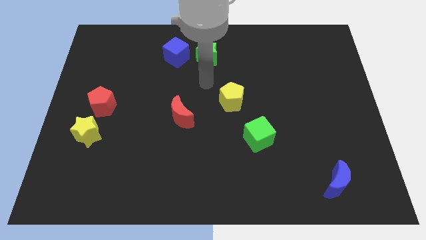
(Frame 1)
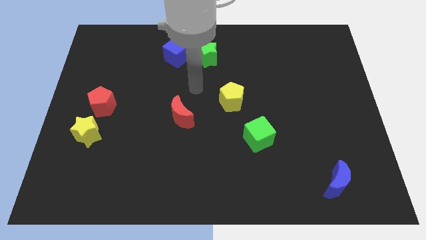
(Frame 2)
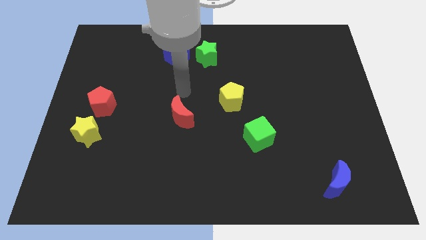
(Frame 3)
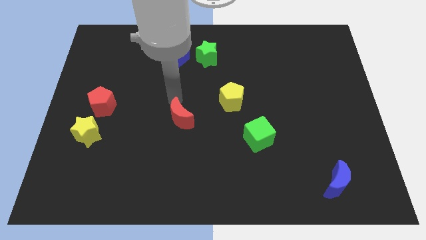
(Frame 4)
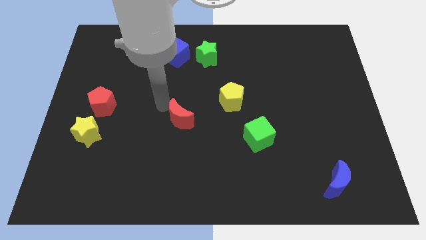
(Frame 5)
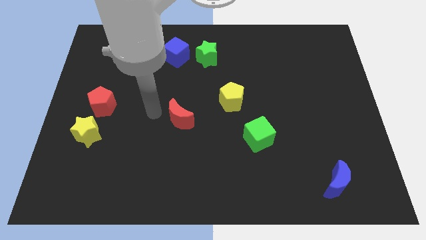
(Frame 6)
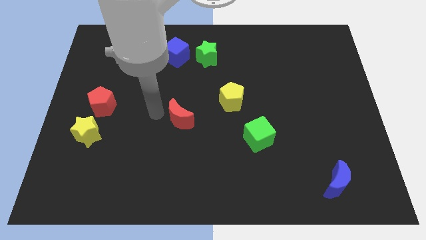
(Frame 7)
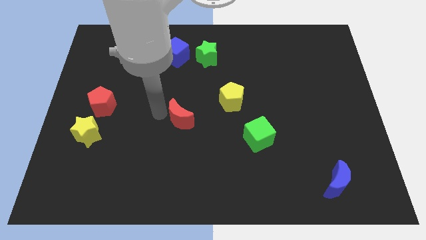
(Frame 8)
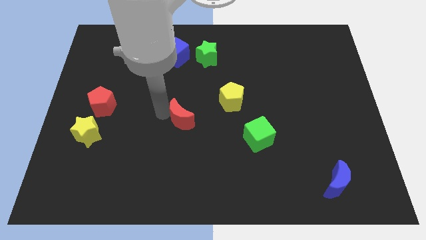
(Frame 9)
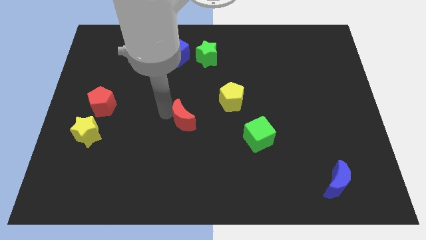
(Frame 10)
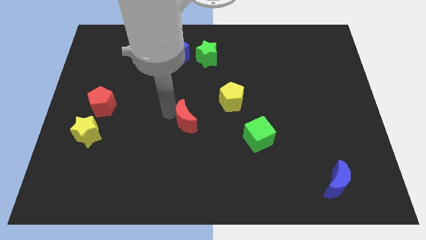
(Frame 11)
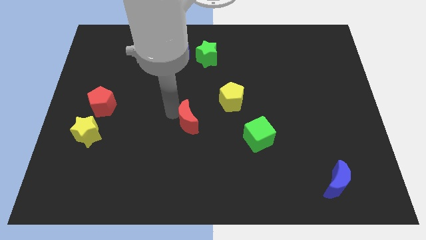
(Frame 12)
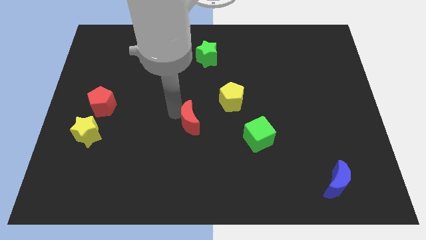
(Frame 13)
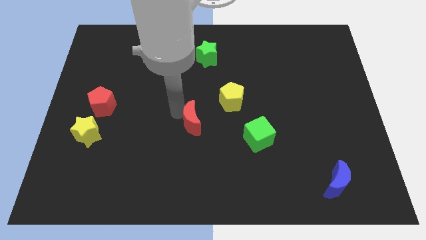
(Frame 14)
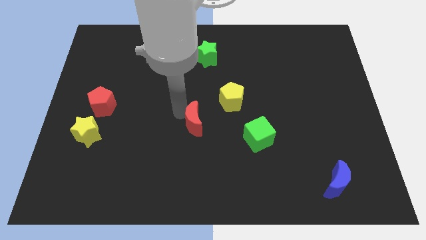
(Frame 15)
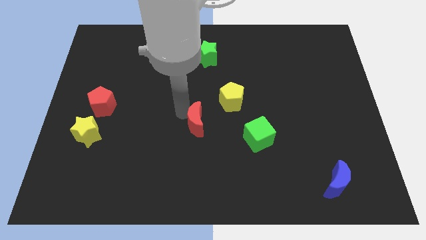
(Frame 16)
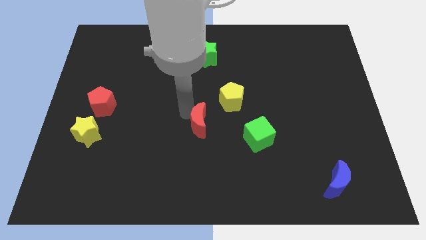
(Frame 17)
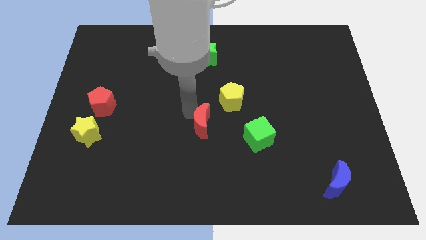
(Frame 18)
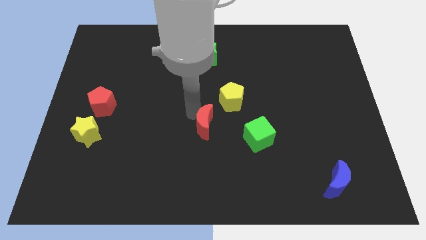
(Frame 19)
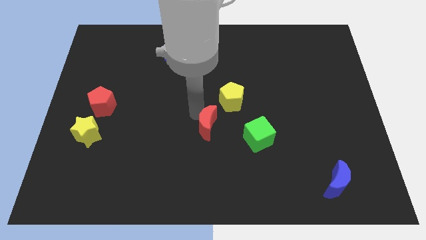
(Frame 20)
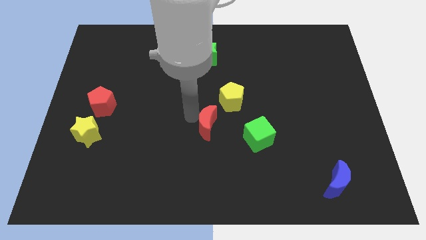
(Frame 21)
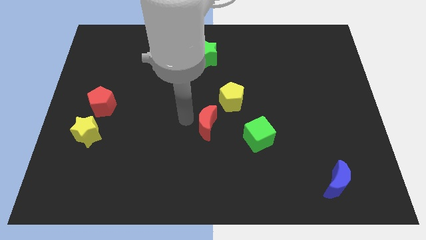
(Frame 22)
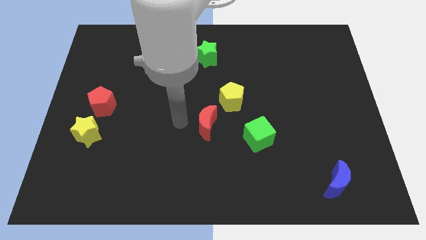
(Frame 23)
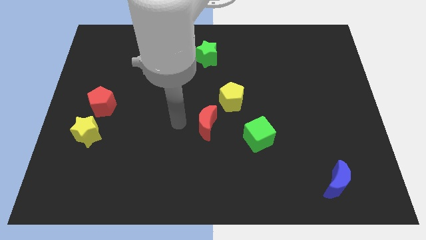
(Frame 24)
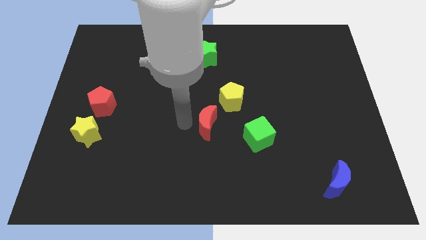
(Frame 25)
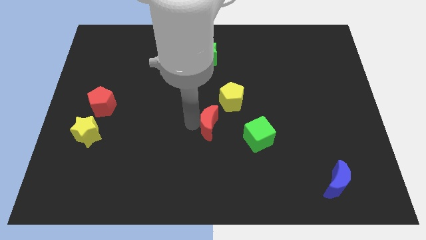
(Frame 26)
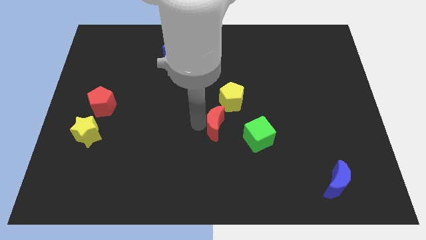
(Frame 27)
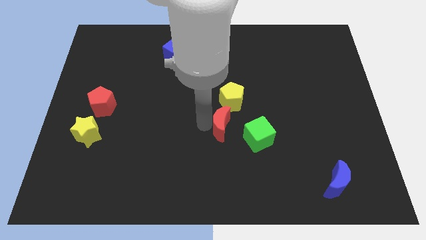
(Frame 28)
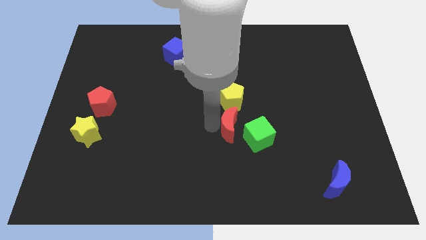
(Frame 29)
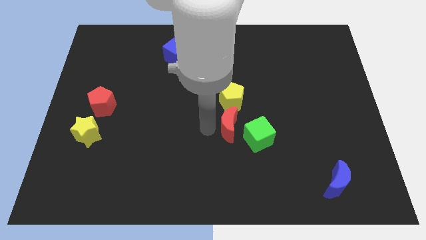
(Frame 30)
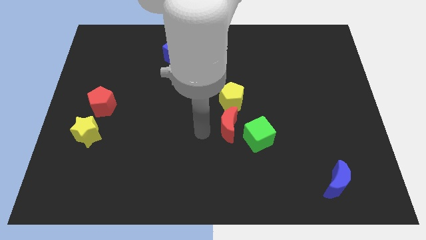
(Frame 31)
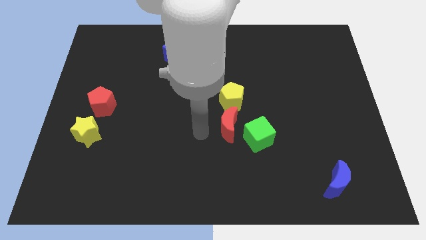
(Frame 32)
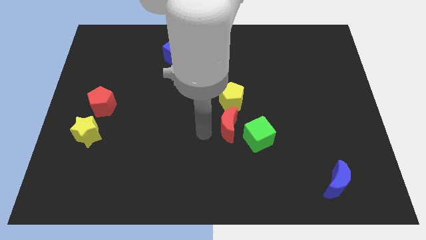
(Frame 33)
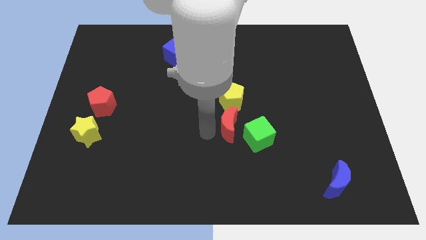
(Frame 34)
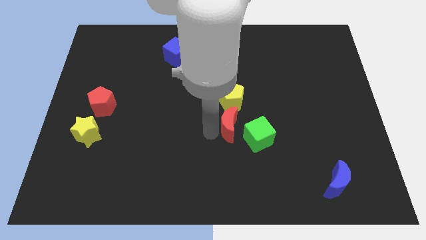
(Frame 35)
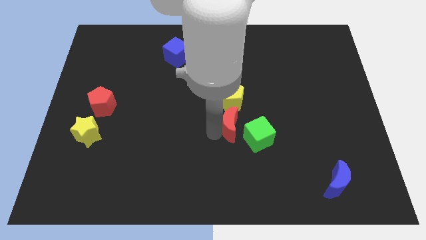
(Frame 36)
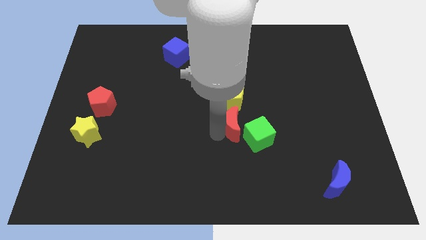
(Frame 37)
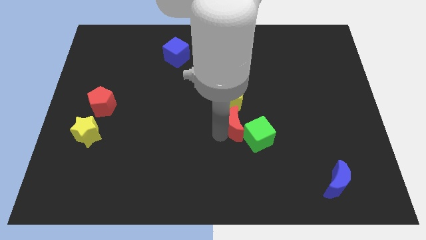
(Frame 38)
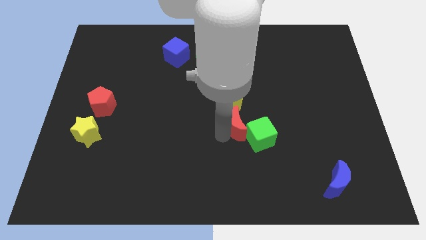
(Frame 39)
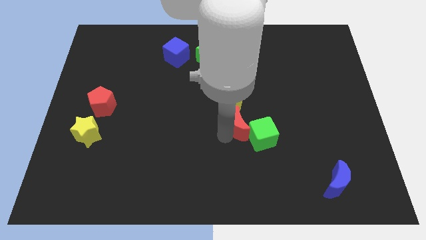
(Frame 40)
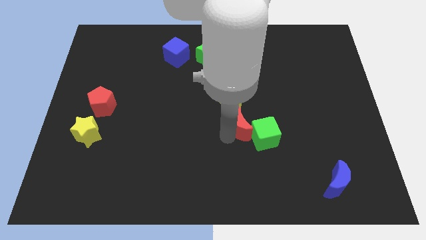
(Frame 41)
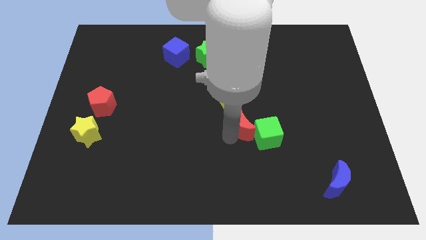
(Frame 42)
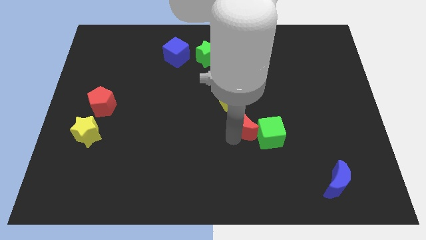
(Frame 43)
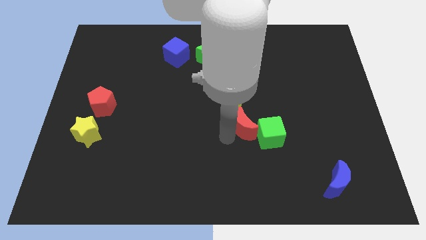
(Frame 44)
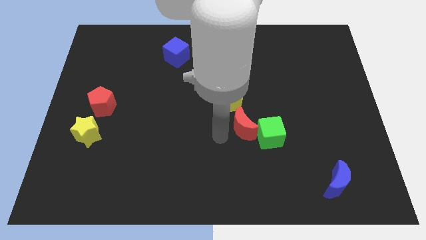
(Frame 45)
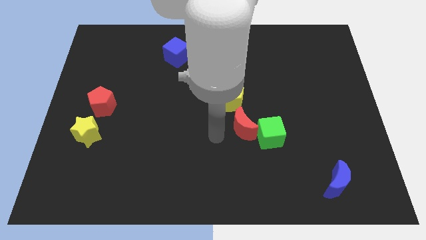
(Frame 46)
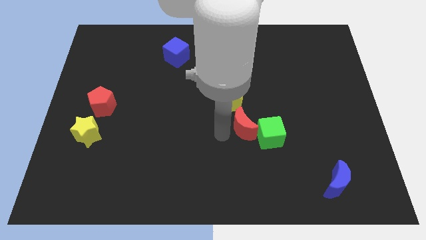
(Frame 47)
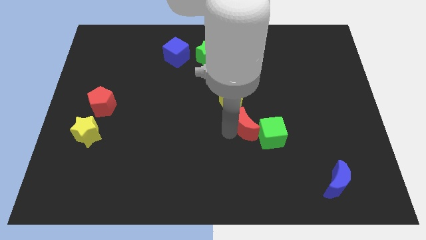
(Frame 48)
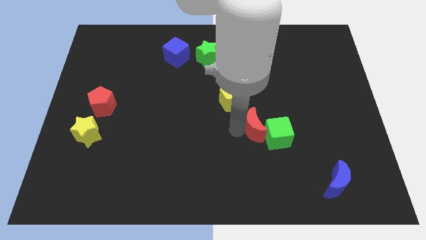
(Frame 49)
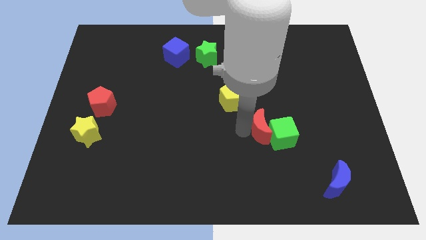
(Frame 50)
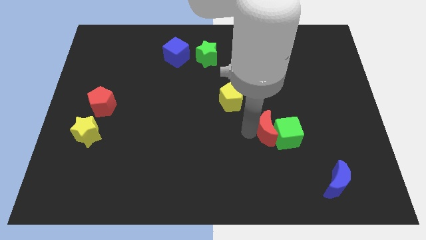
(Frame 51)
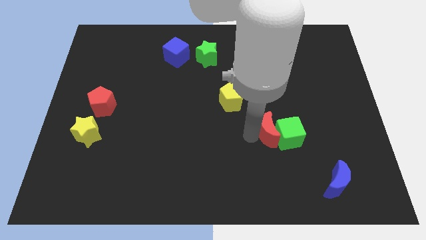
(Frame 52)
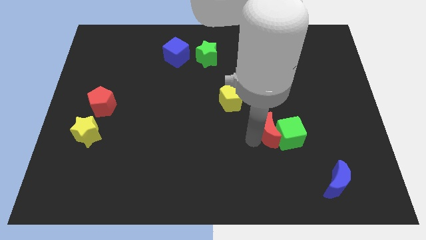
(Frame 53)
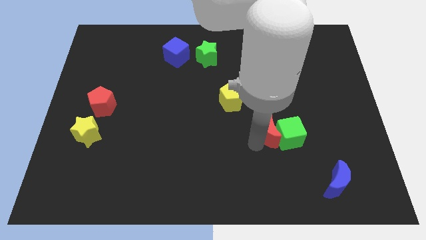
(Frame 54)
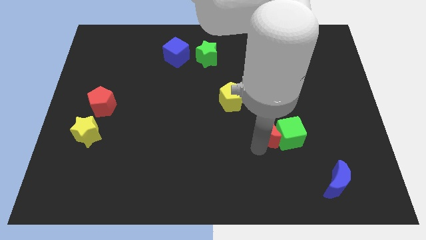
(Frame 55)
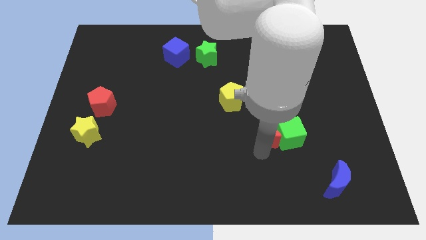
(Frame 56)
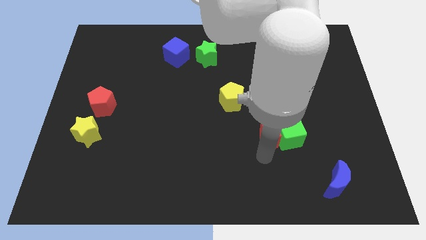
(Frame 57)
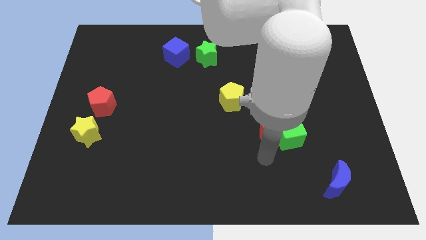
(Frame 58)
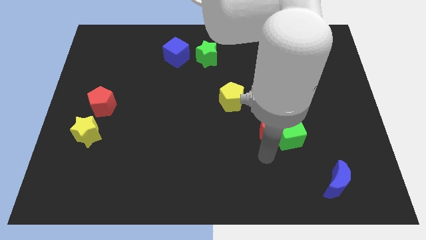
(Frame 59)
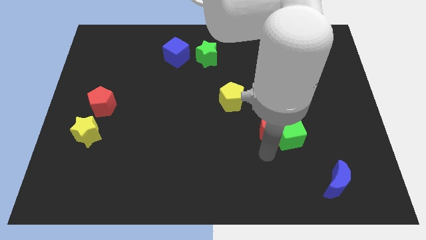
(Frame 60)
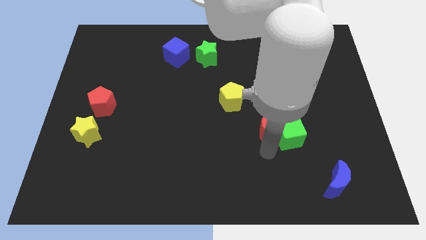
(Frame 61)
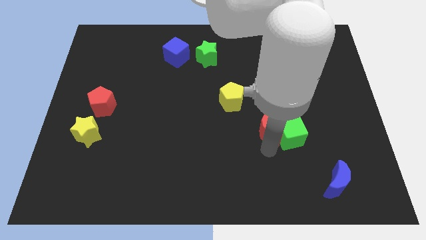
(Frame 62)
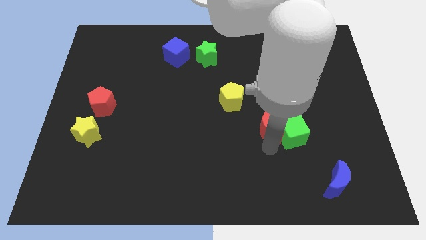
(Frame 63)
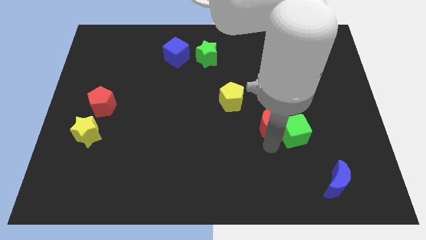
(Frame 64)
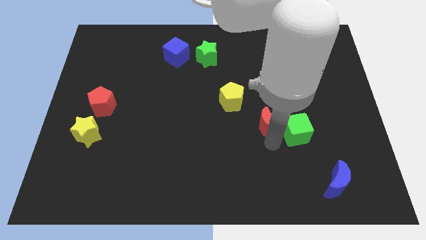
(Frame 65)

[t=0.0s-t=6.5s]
slide the red moon to the right

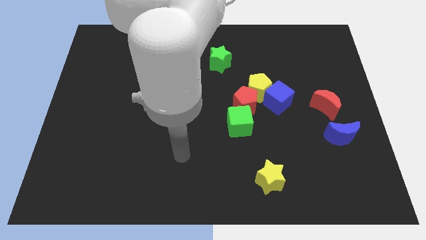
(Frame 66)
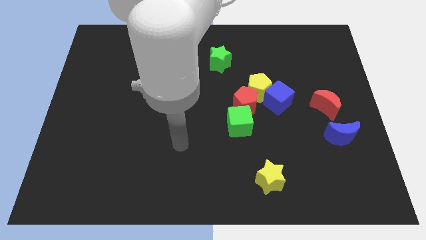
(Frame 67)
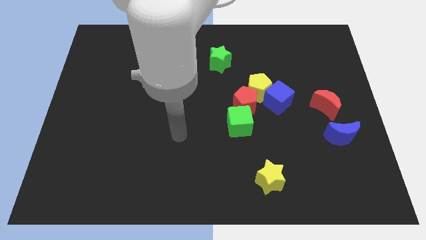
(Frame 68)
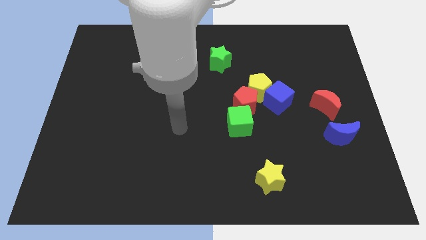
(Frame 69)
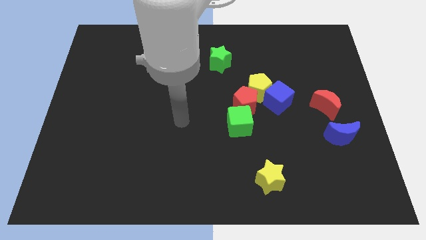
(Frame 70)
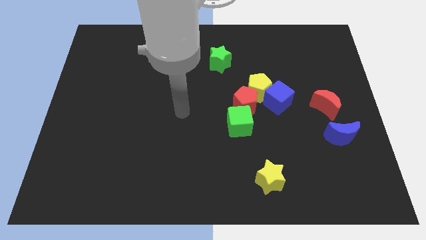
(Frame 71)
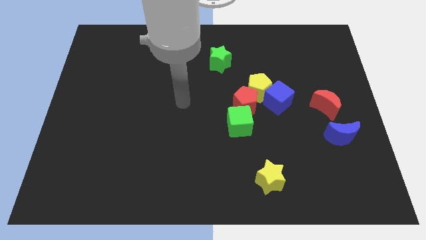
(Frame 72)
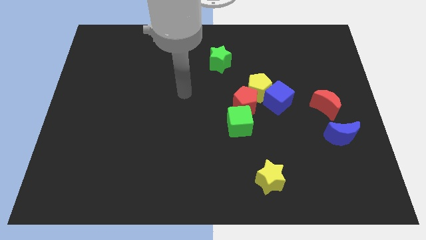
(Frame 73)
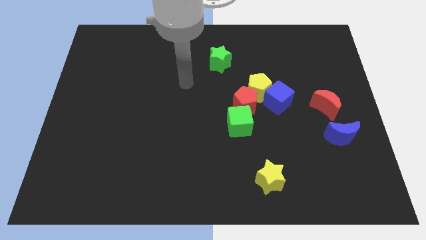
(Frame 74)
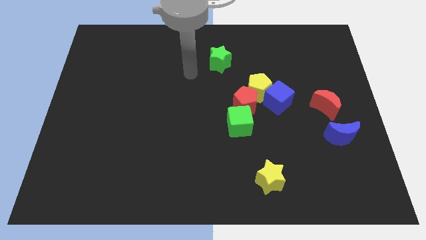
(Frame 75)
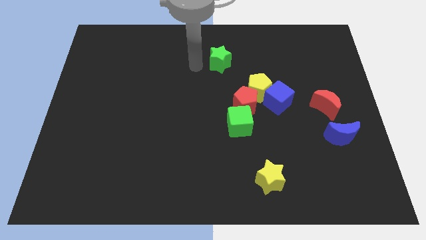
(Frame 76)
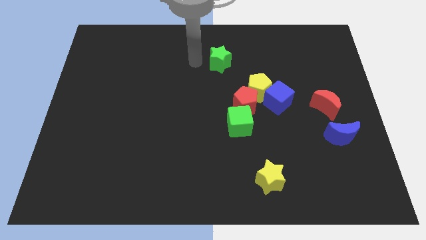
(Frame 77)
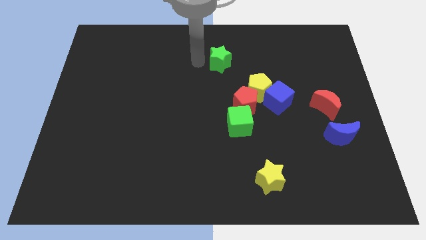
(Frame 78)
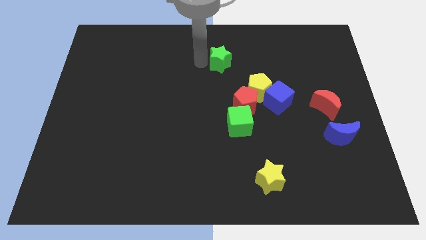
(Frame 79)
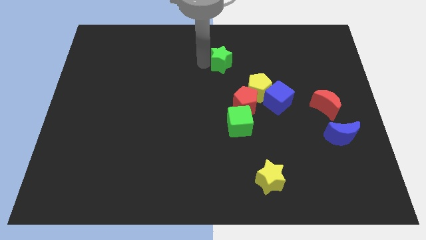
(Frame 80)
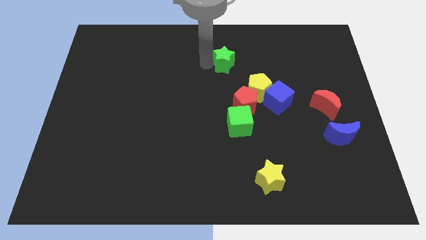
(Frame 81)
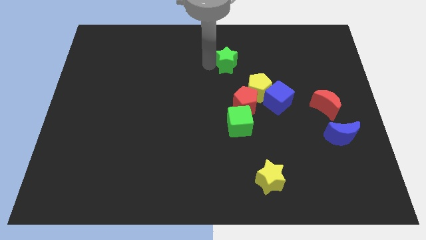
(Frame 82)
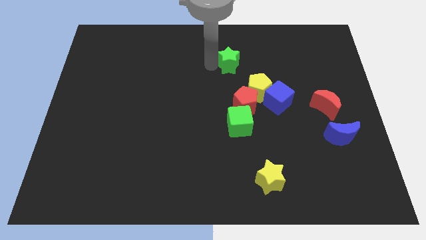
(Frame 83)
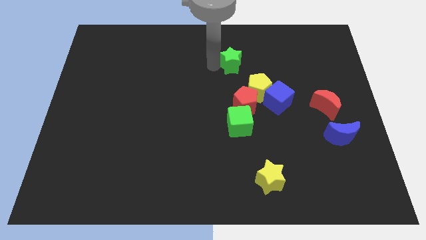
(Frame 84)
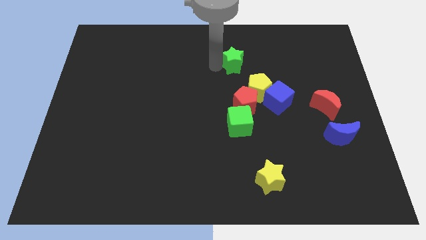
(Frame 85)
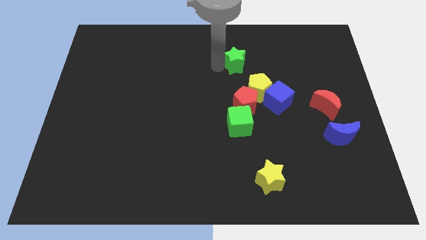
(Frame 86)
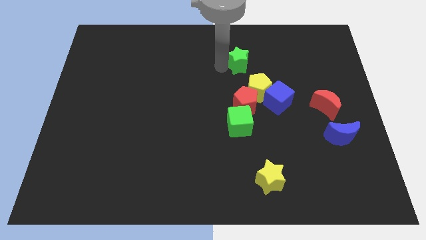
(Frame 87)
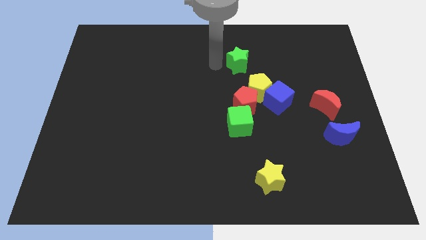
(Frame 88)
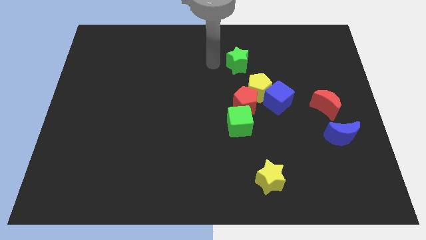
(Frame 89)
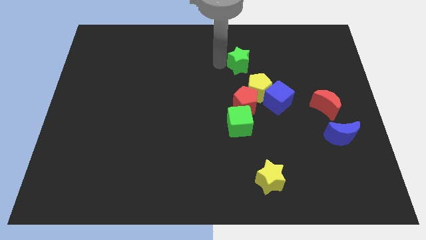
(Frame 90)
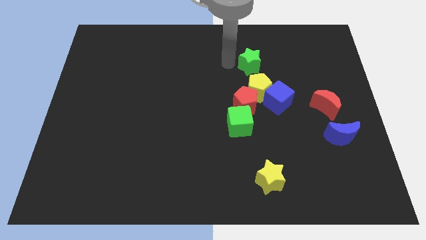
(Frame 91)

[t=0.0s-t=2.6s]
slide the green star right a bit
